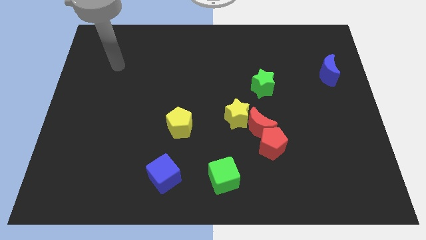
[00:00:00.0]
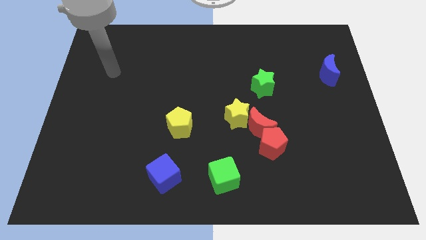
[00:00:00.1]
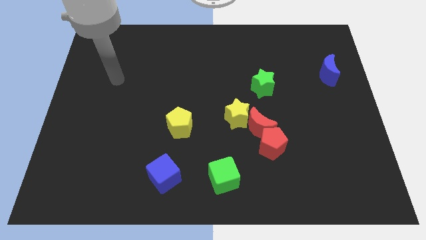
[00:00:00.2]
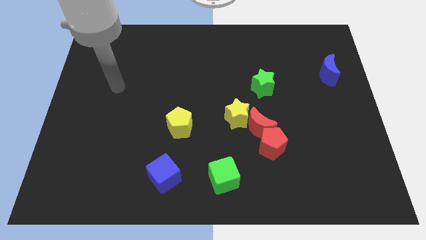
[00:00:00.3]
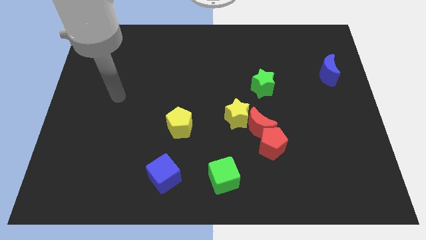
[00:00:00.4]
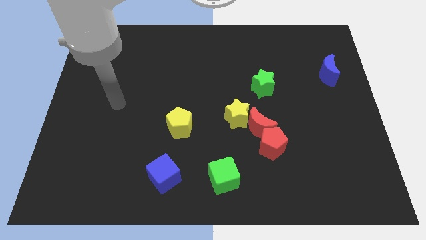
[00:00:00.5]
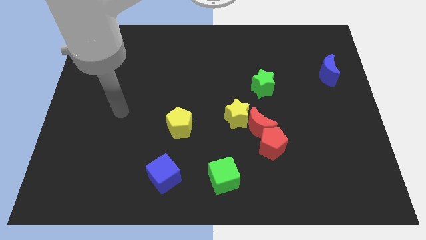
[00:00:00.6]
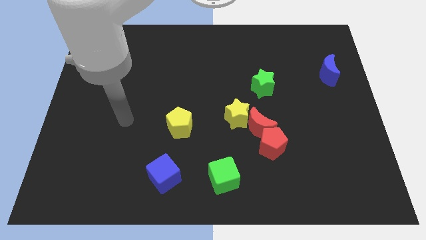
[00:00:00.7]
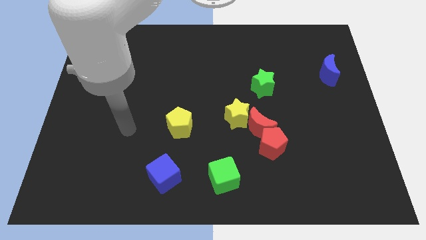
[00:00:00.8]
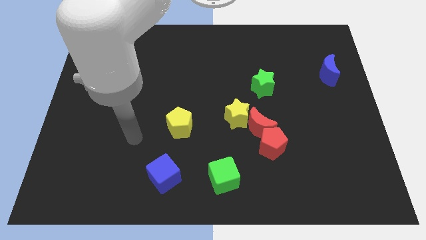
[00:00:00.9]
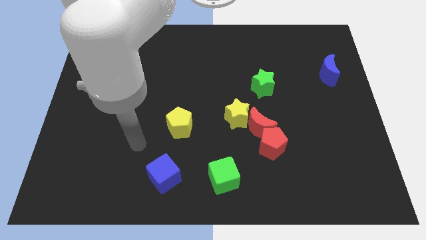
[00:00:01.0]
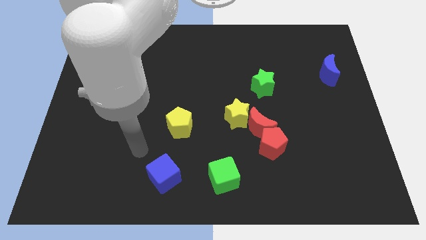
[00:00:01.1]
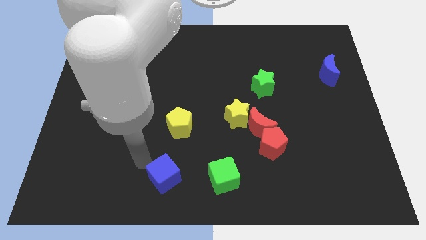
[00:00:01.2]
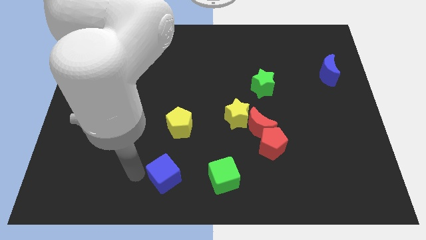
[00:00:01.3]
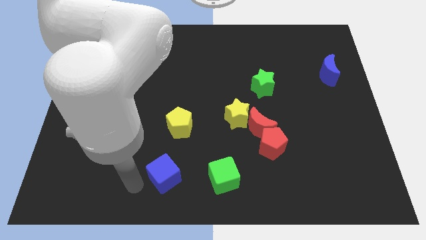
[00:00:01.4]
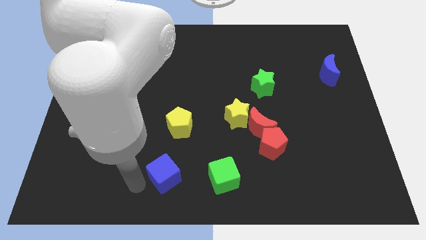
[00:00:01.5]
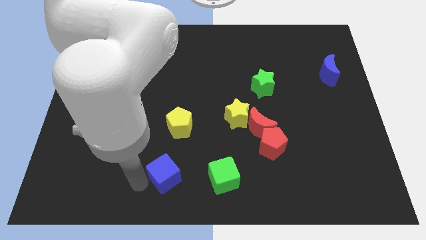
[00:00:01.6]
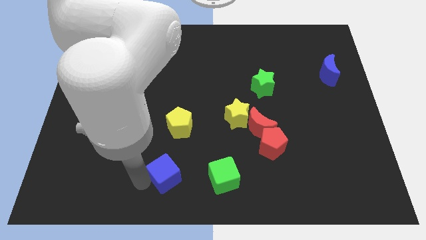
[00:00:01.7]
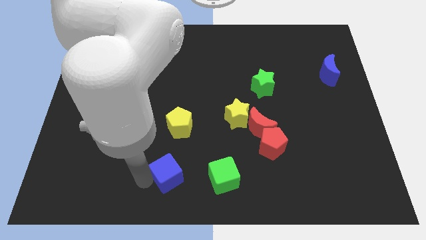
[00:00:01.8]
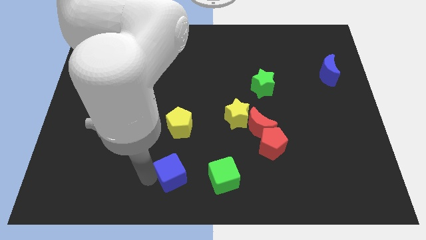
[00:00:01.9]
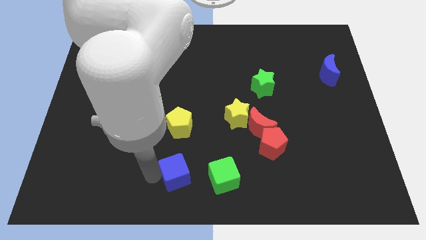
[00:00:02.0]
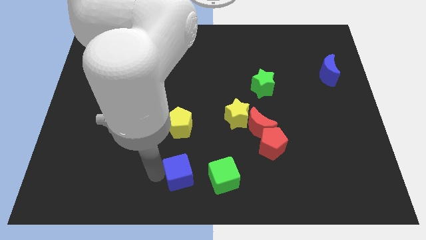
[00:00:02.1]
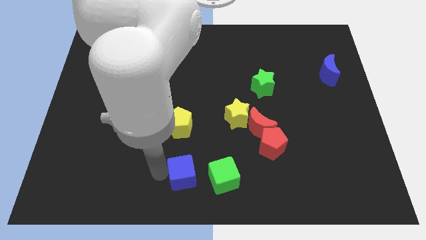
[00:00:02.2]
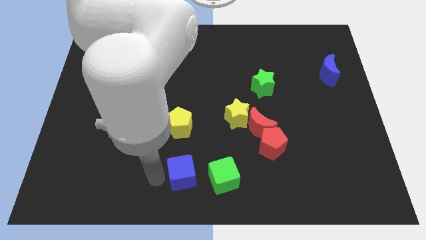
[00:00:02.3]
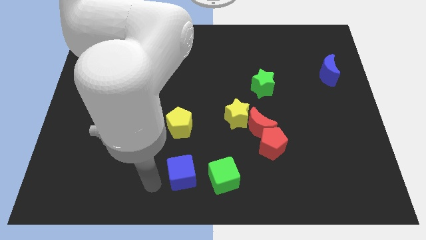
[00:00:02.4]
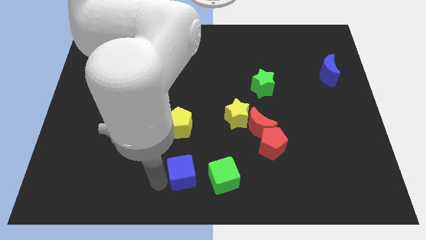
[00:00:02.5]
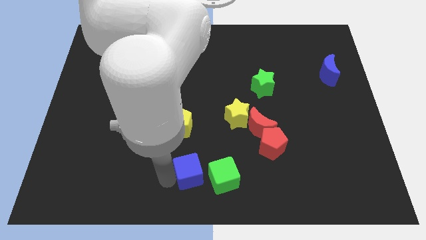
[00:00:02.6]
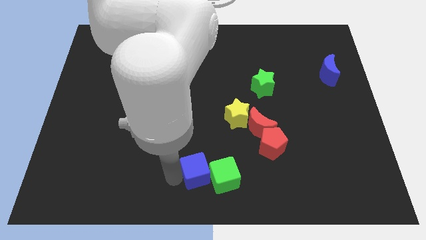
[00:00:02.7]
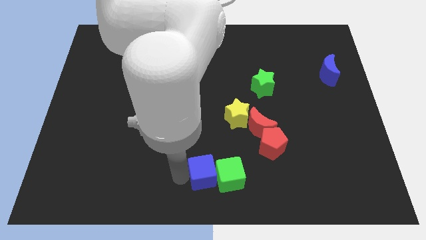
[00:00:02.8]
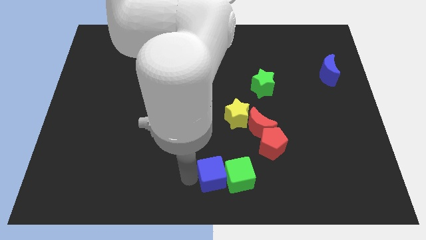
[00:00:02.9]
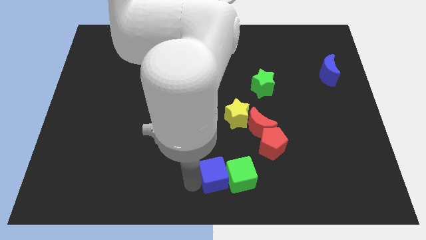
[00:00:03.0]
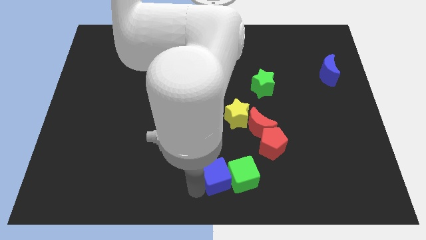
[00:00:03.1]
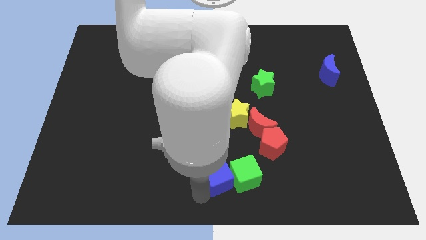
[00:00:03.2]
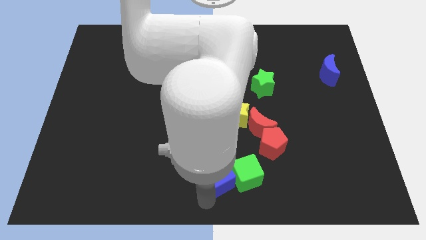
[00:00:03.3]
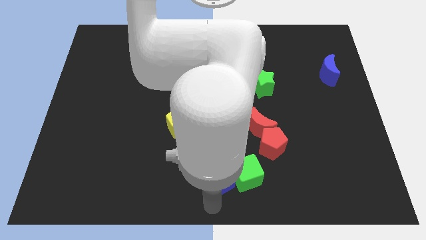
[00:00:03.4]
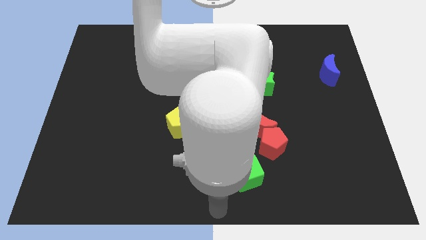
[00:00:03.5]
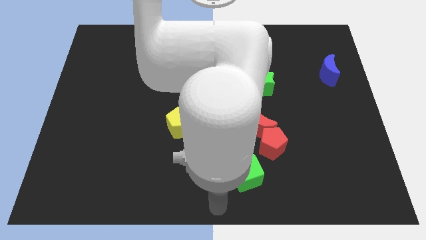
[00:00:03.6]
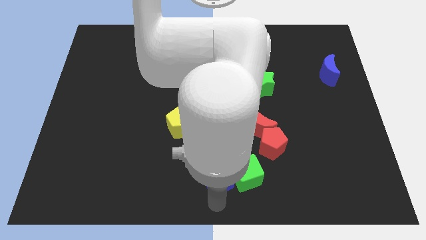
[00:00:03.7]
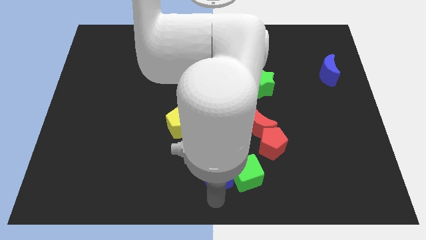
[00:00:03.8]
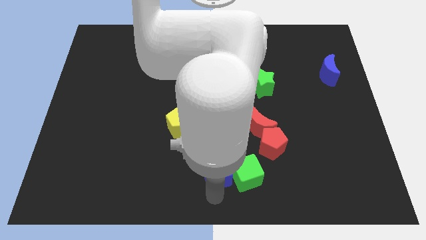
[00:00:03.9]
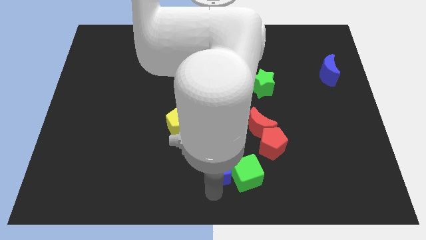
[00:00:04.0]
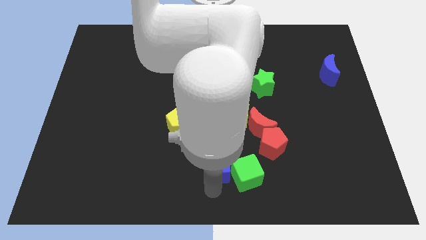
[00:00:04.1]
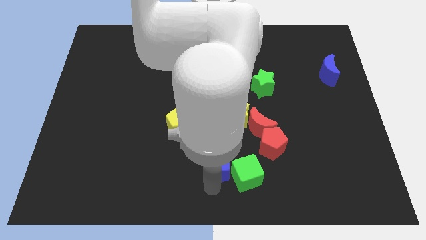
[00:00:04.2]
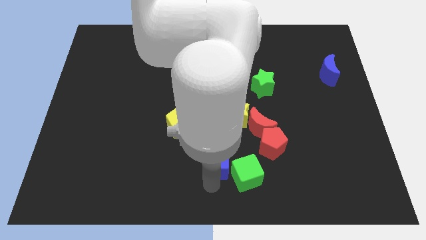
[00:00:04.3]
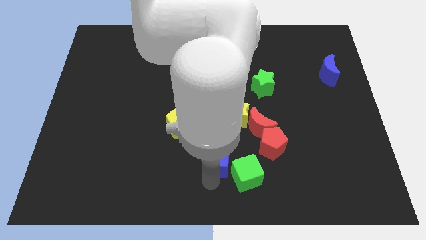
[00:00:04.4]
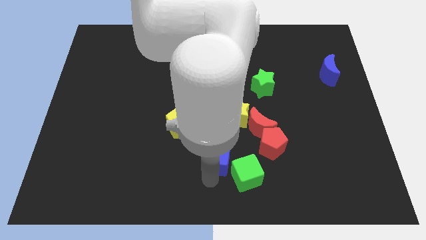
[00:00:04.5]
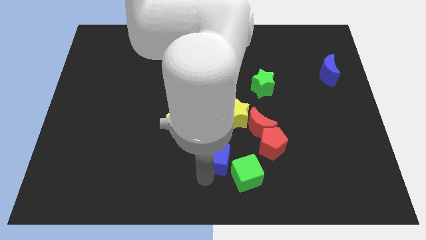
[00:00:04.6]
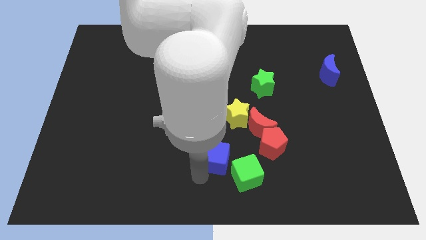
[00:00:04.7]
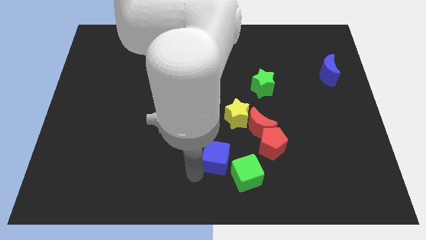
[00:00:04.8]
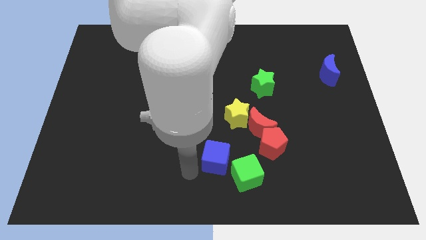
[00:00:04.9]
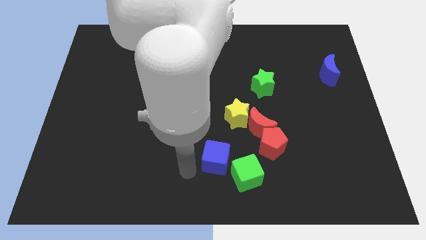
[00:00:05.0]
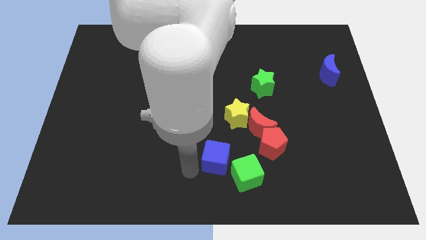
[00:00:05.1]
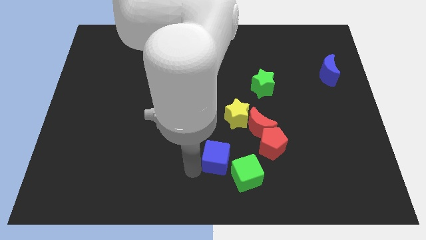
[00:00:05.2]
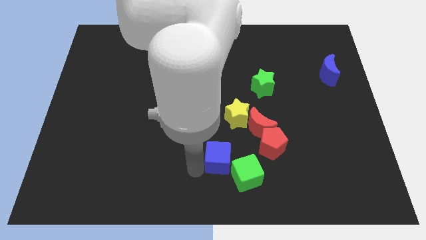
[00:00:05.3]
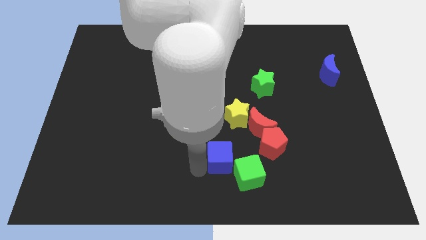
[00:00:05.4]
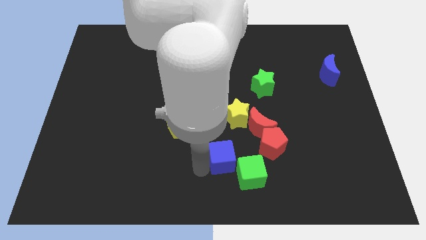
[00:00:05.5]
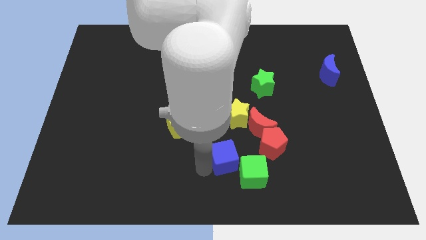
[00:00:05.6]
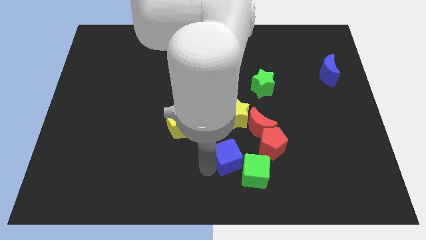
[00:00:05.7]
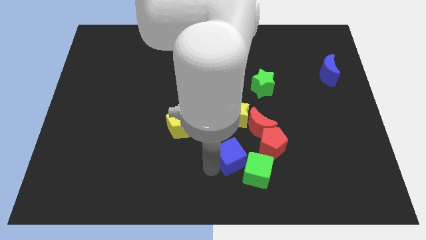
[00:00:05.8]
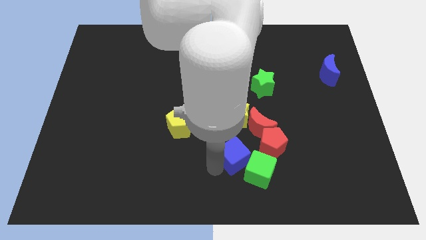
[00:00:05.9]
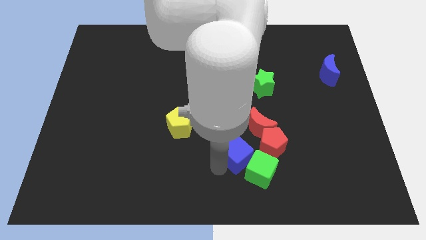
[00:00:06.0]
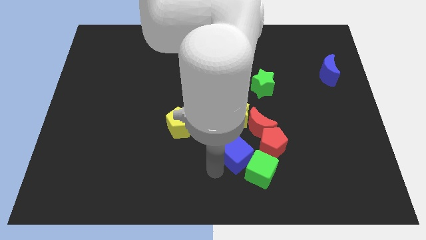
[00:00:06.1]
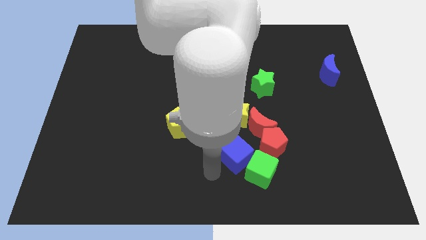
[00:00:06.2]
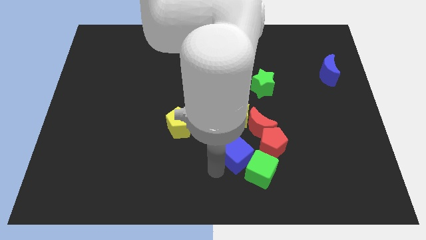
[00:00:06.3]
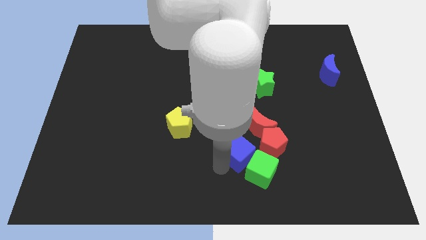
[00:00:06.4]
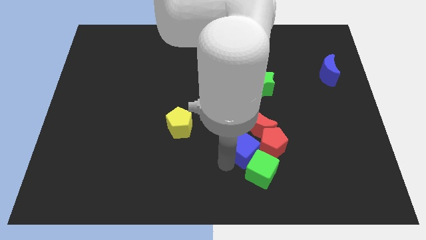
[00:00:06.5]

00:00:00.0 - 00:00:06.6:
push the blue cube next to the red pentagon

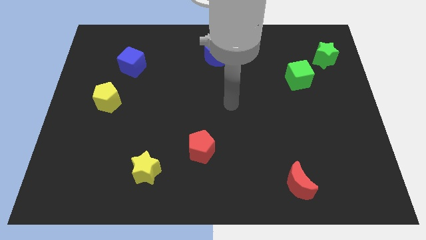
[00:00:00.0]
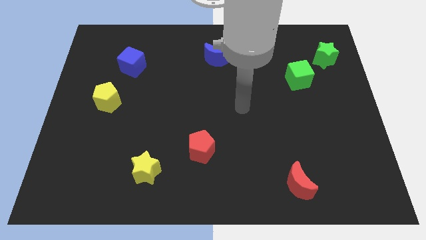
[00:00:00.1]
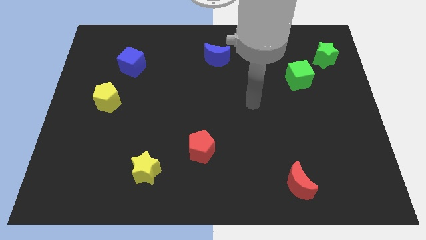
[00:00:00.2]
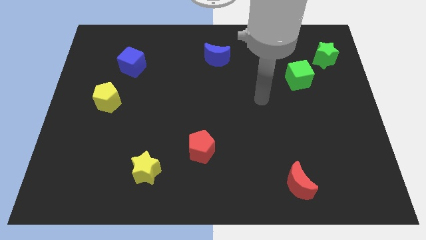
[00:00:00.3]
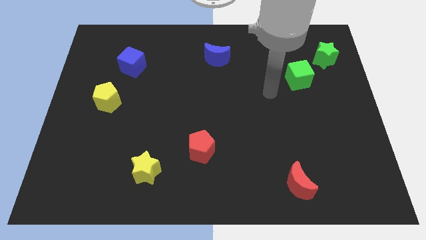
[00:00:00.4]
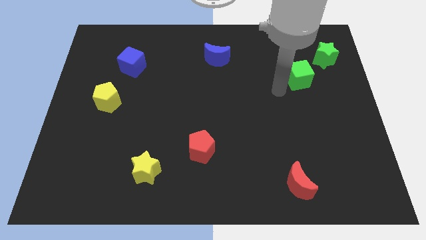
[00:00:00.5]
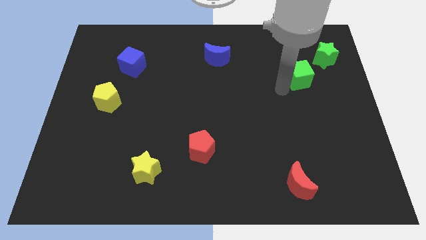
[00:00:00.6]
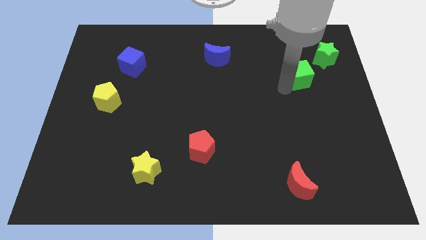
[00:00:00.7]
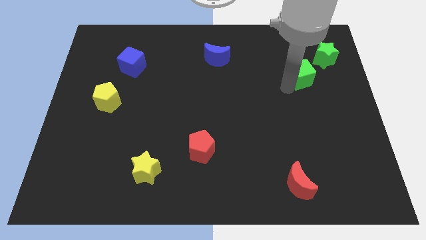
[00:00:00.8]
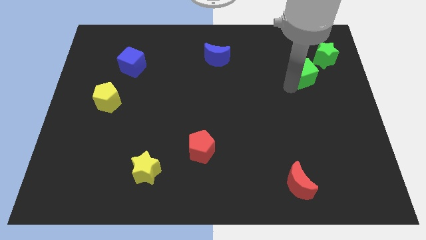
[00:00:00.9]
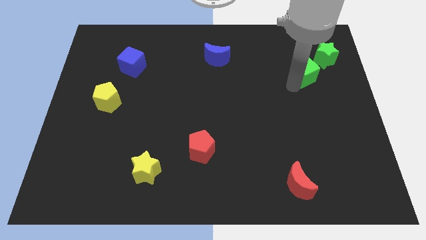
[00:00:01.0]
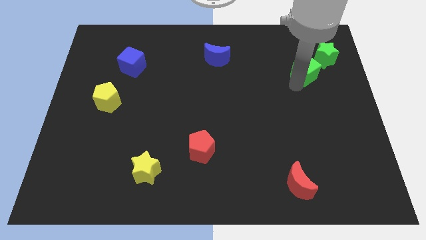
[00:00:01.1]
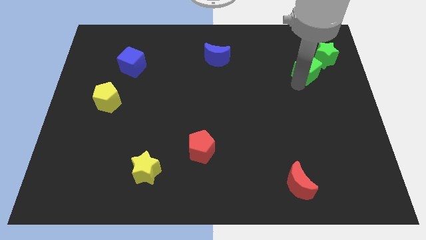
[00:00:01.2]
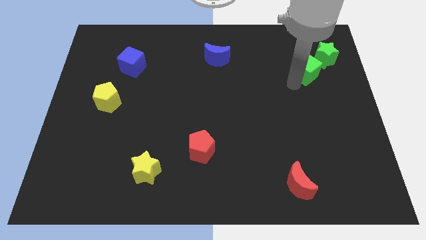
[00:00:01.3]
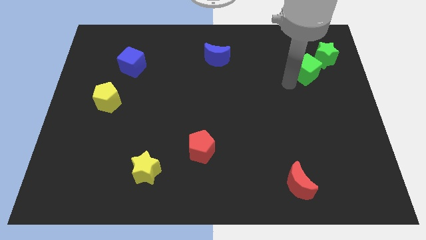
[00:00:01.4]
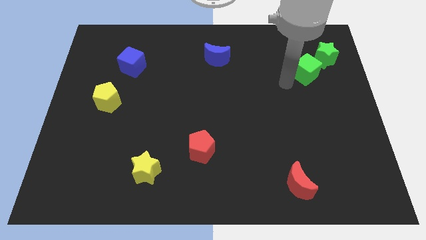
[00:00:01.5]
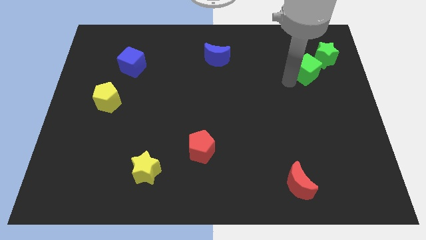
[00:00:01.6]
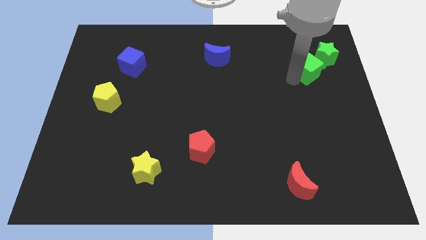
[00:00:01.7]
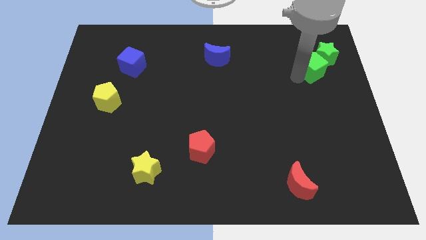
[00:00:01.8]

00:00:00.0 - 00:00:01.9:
move the green cube next to the green star
